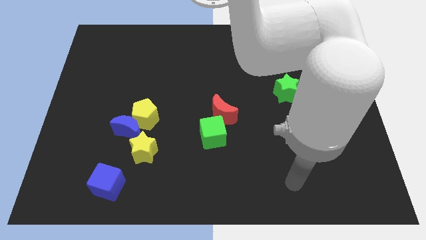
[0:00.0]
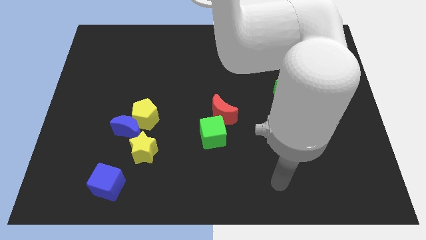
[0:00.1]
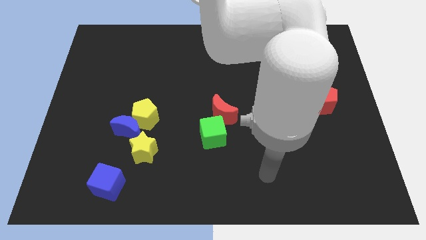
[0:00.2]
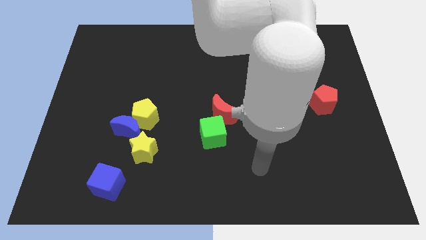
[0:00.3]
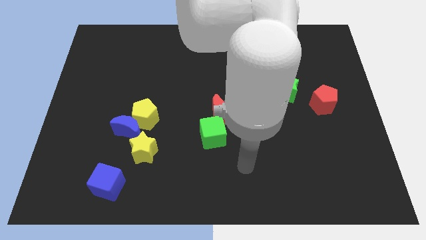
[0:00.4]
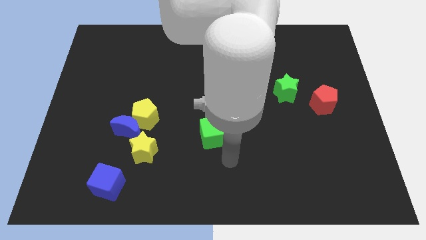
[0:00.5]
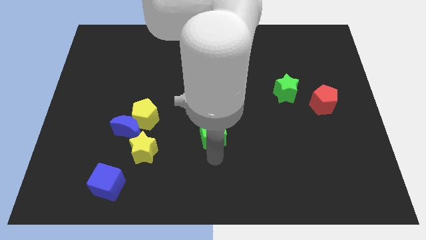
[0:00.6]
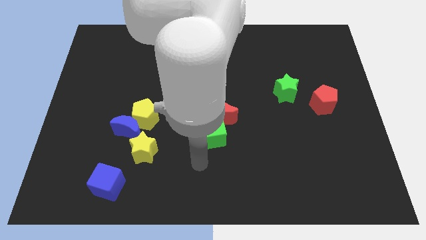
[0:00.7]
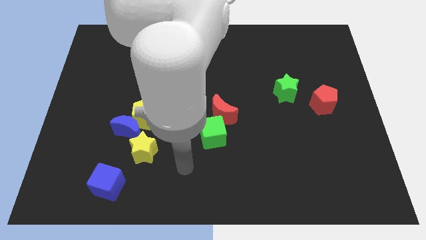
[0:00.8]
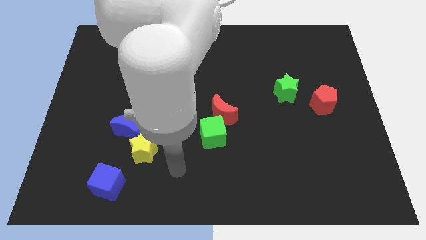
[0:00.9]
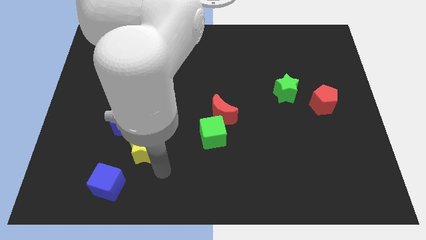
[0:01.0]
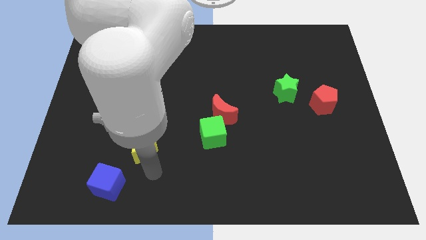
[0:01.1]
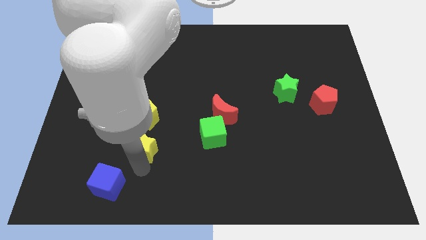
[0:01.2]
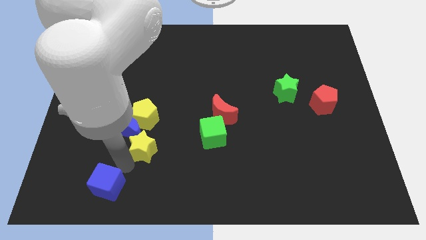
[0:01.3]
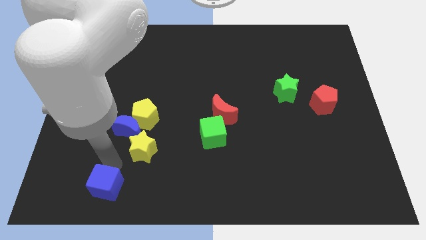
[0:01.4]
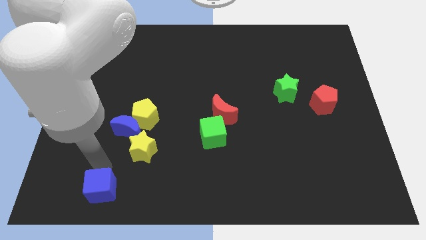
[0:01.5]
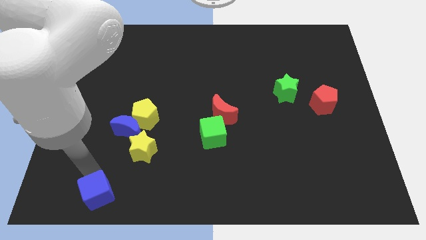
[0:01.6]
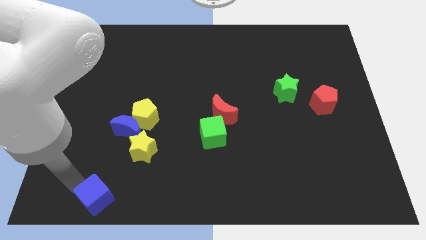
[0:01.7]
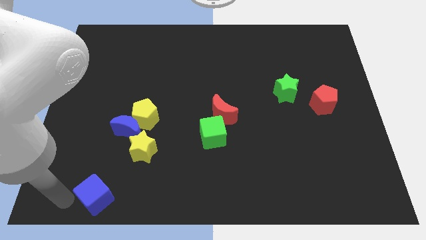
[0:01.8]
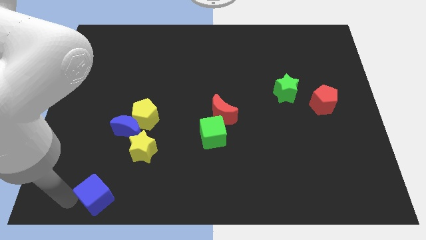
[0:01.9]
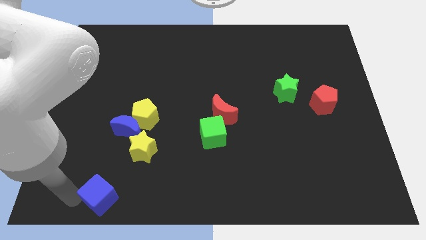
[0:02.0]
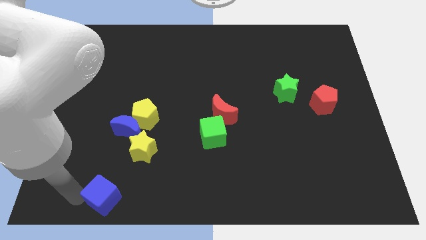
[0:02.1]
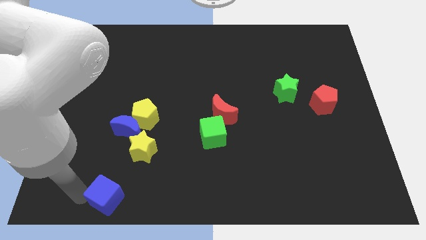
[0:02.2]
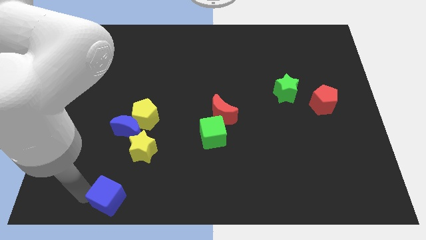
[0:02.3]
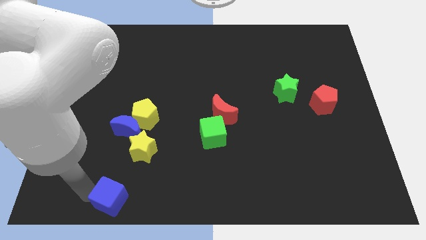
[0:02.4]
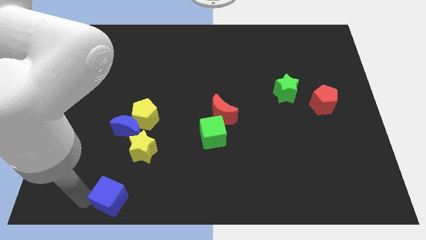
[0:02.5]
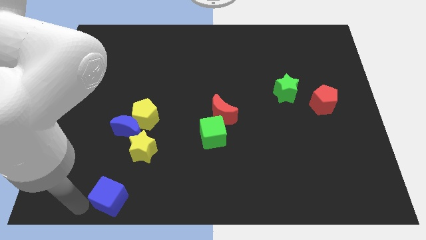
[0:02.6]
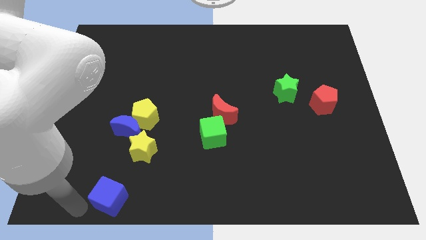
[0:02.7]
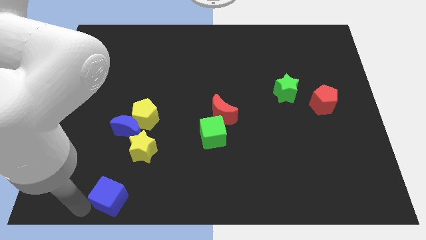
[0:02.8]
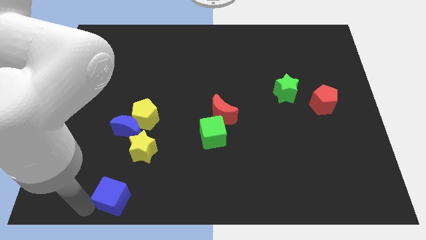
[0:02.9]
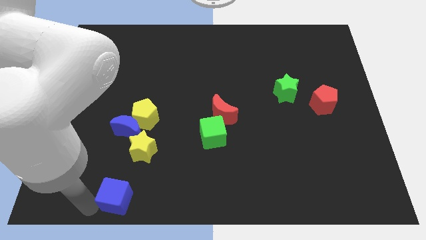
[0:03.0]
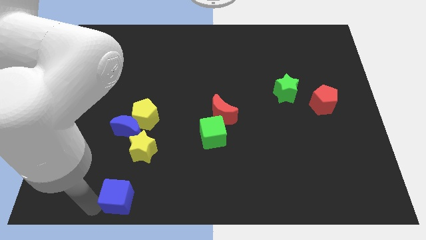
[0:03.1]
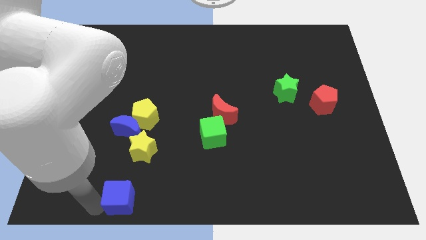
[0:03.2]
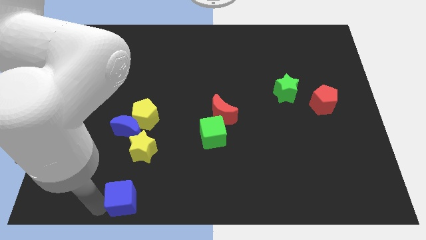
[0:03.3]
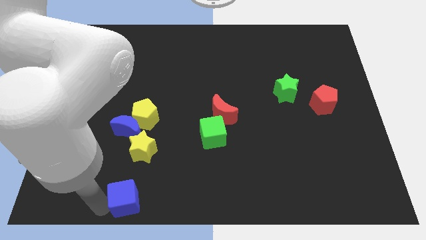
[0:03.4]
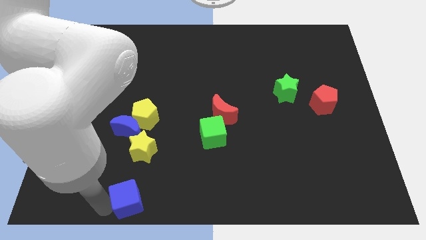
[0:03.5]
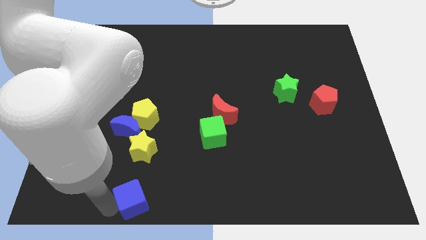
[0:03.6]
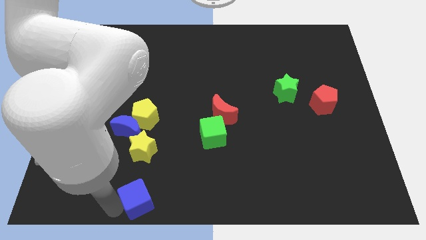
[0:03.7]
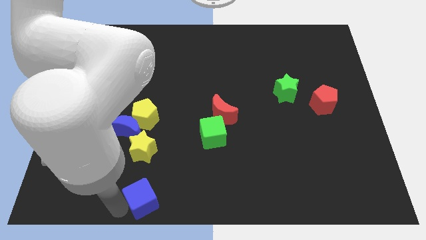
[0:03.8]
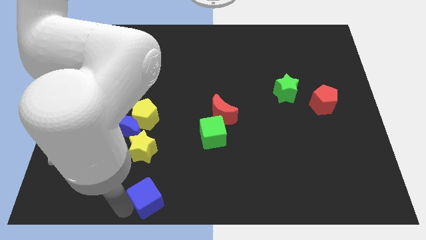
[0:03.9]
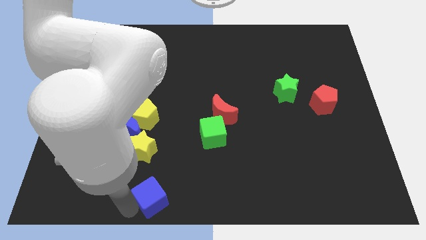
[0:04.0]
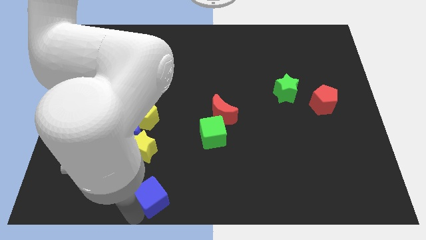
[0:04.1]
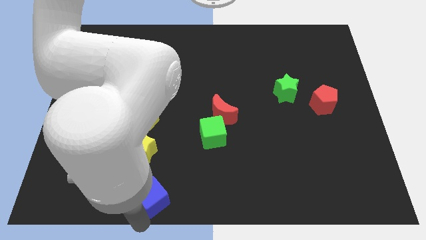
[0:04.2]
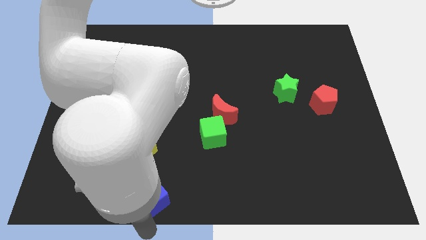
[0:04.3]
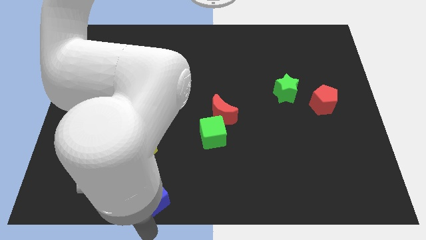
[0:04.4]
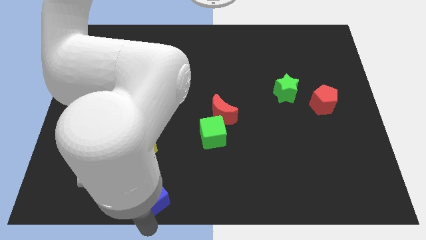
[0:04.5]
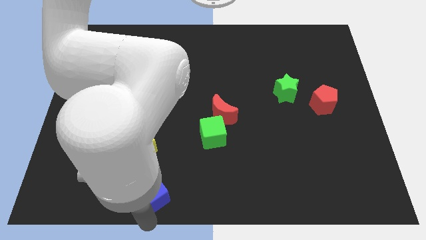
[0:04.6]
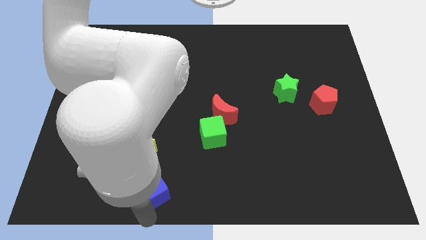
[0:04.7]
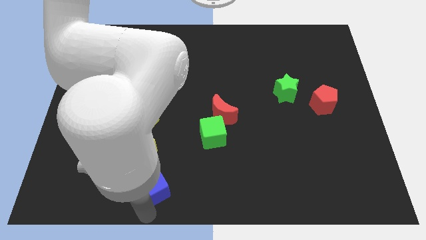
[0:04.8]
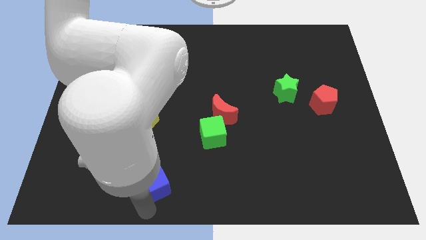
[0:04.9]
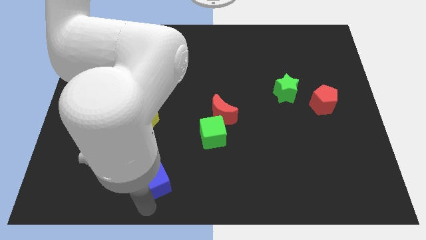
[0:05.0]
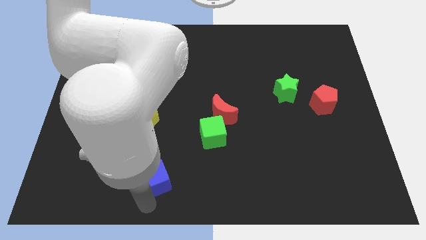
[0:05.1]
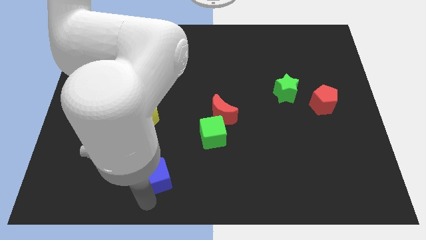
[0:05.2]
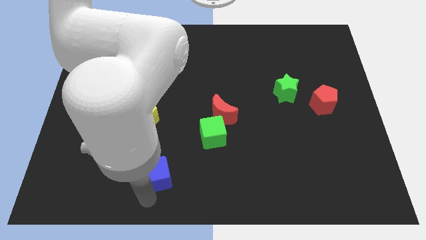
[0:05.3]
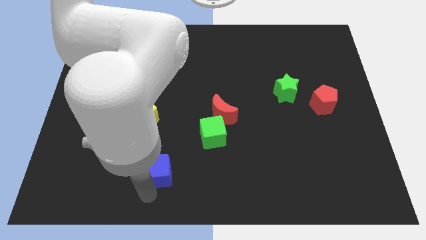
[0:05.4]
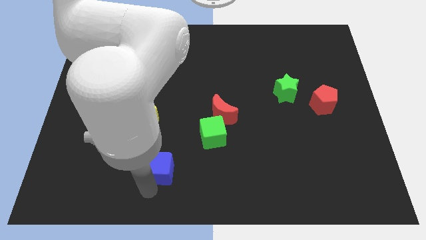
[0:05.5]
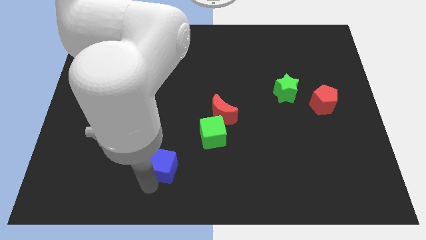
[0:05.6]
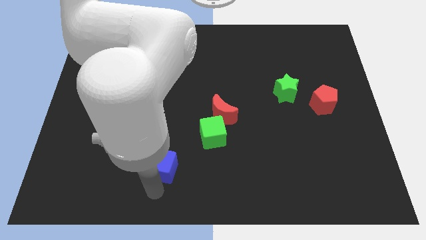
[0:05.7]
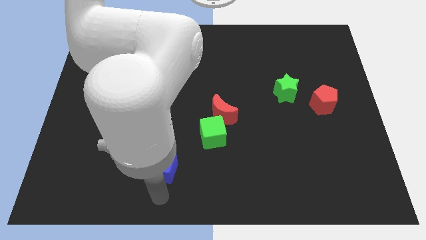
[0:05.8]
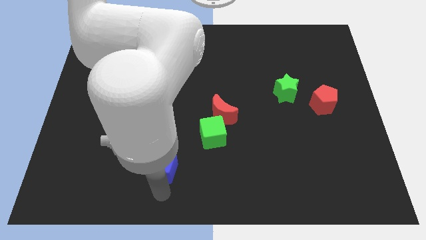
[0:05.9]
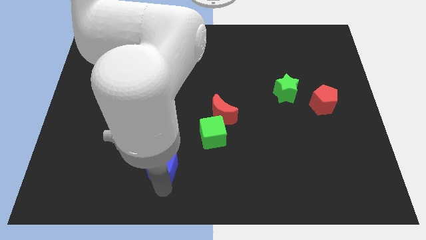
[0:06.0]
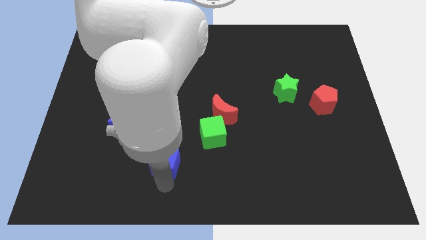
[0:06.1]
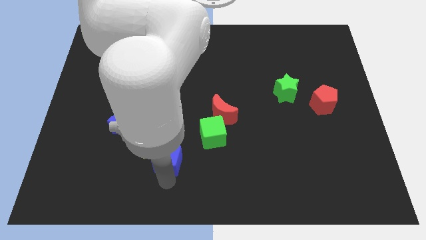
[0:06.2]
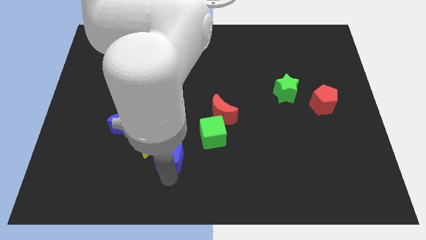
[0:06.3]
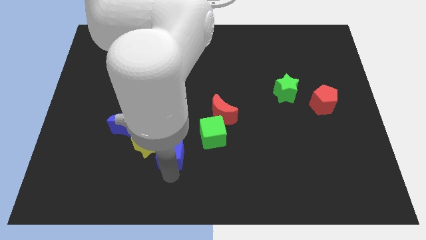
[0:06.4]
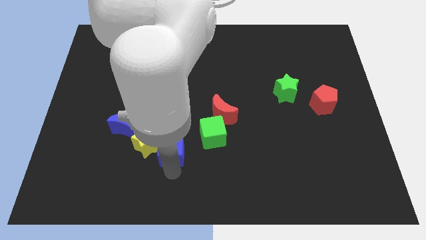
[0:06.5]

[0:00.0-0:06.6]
push the blue cube just left of the green cube
